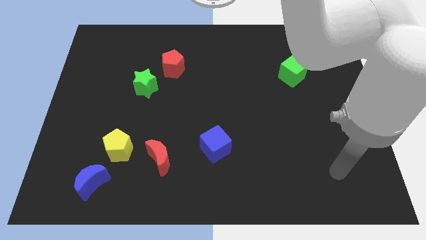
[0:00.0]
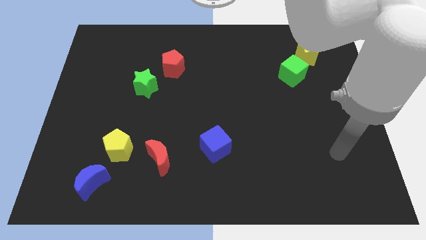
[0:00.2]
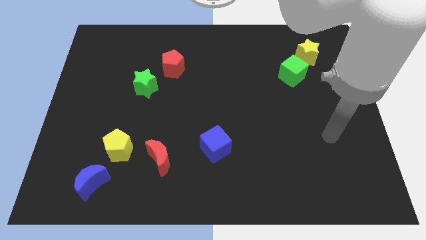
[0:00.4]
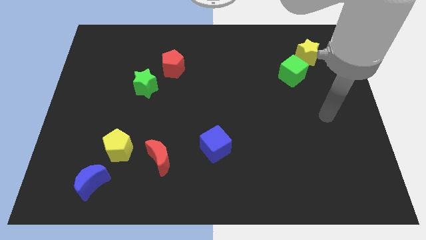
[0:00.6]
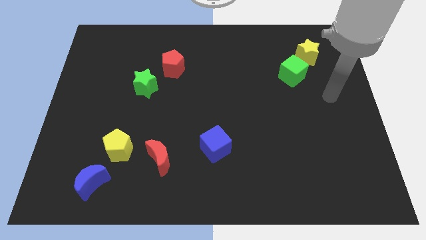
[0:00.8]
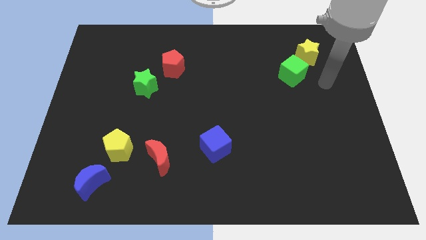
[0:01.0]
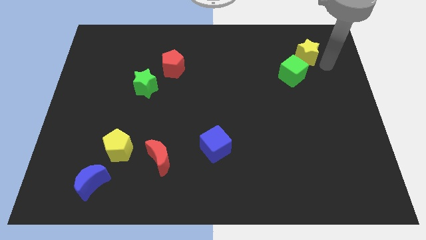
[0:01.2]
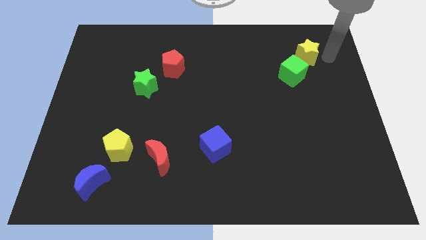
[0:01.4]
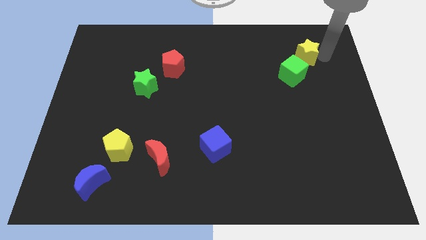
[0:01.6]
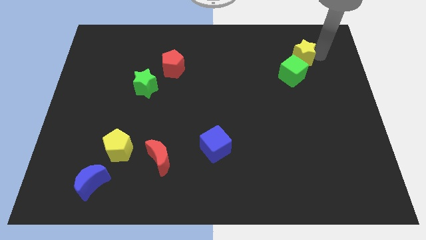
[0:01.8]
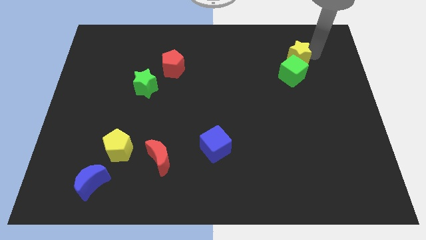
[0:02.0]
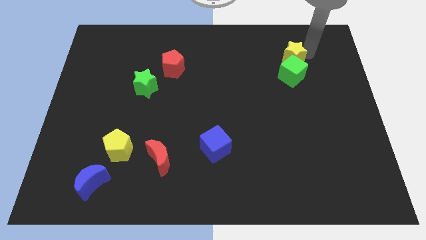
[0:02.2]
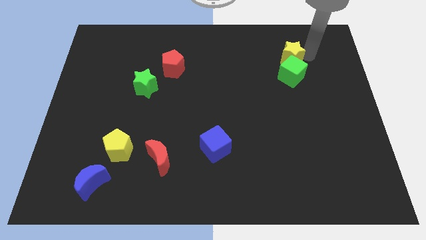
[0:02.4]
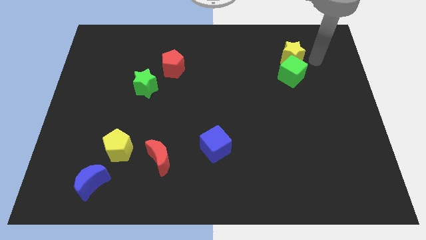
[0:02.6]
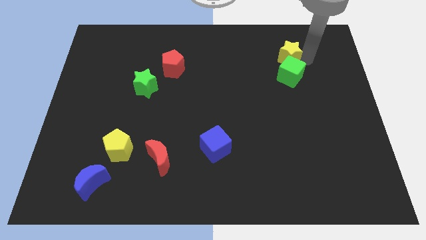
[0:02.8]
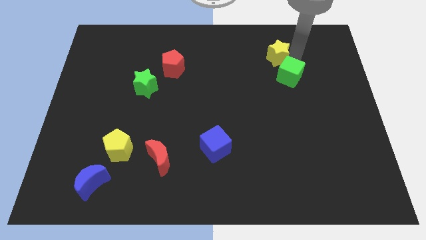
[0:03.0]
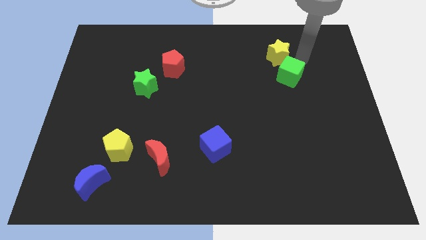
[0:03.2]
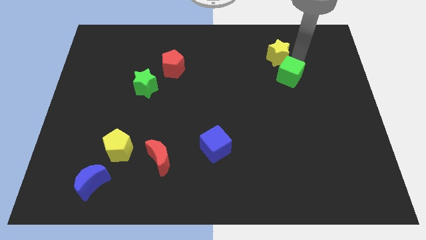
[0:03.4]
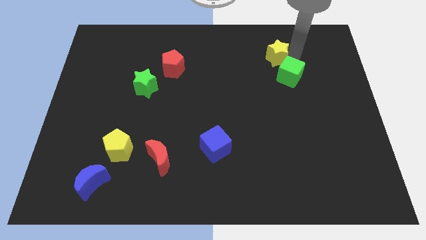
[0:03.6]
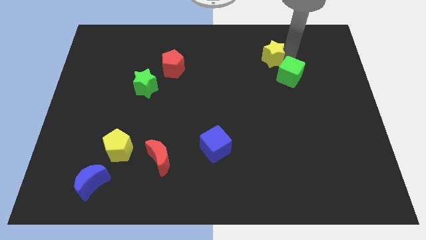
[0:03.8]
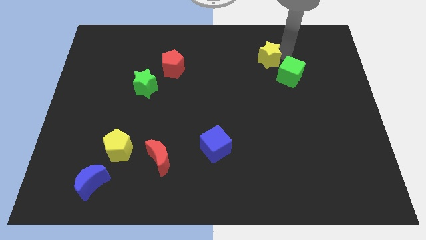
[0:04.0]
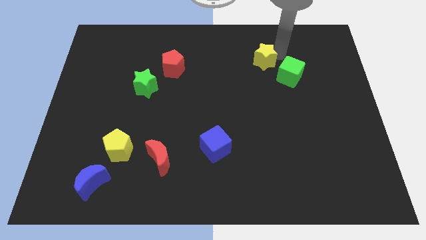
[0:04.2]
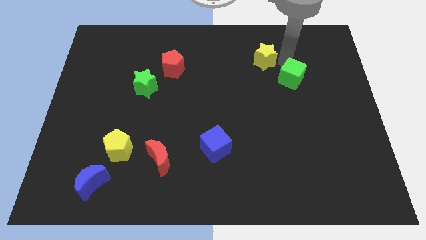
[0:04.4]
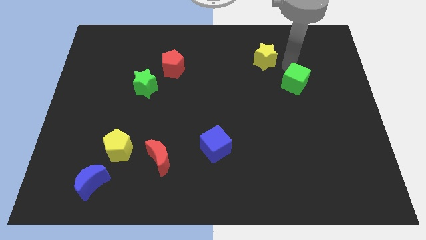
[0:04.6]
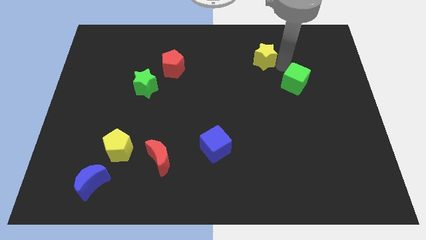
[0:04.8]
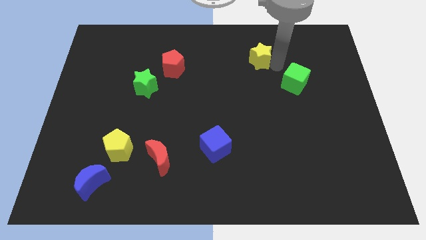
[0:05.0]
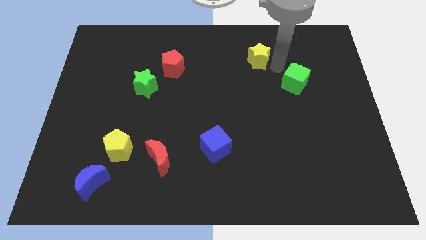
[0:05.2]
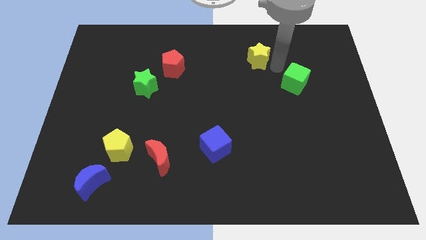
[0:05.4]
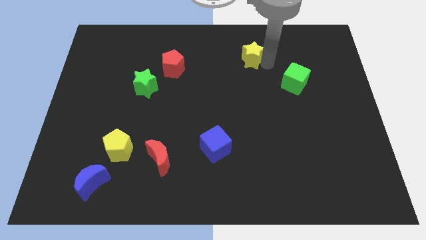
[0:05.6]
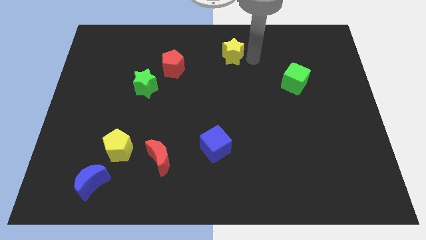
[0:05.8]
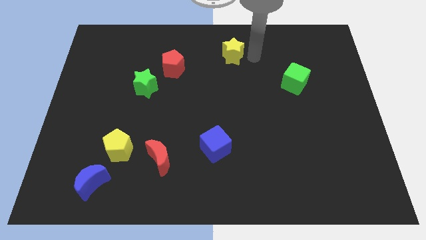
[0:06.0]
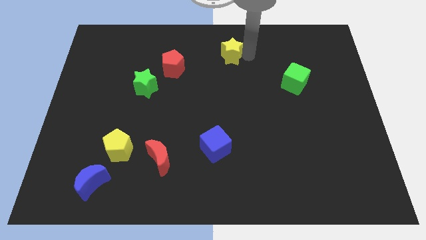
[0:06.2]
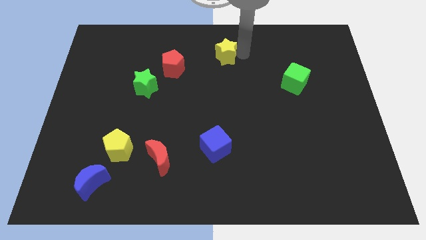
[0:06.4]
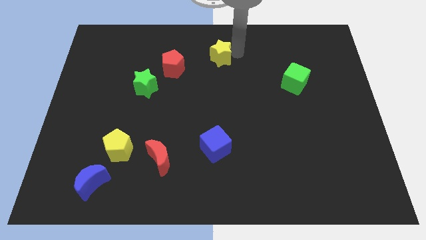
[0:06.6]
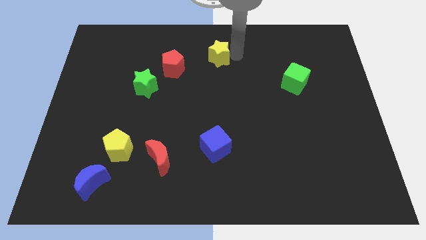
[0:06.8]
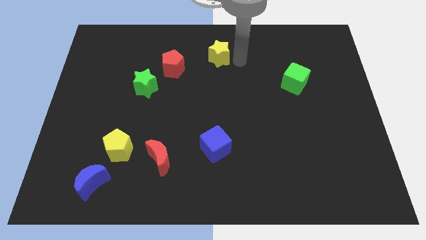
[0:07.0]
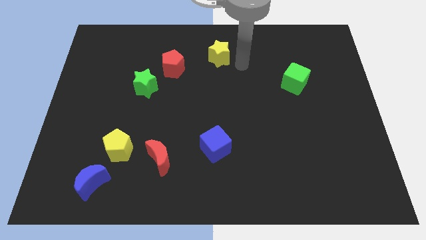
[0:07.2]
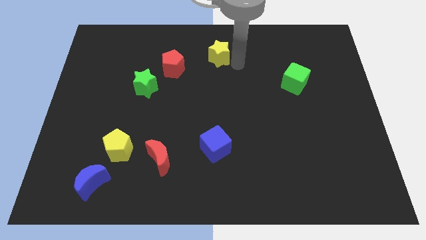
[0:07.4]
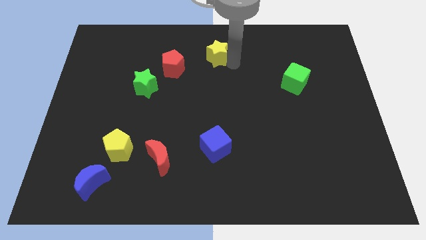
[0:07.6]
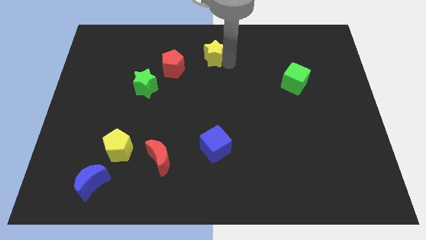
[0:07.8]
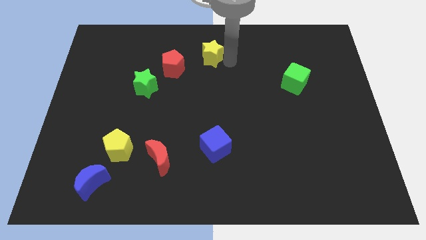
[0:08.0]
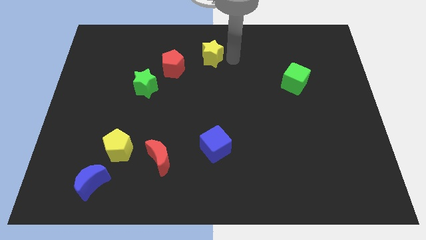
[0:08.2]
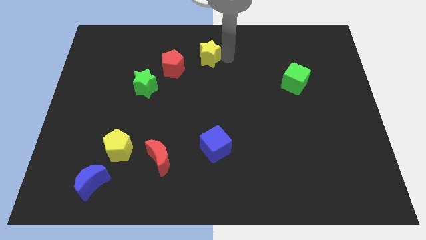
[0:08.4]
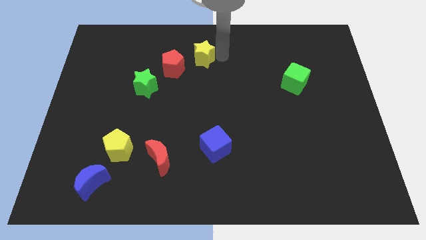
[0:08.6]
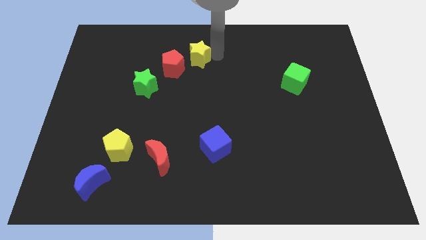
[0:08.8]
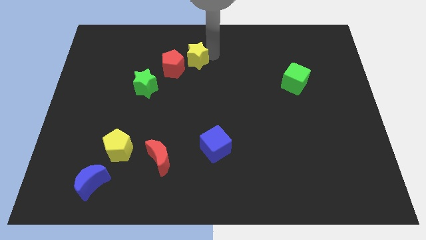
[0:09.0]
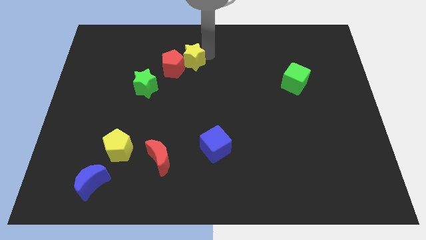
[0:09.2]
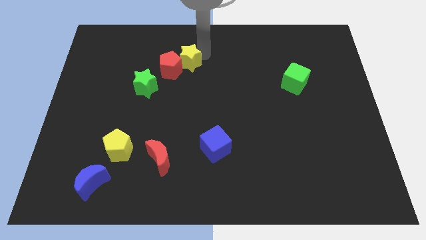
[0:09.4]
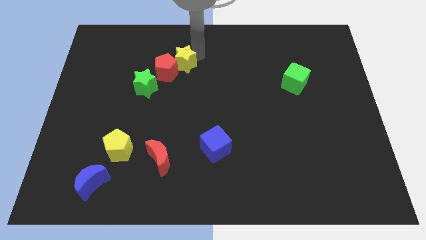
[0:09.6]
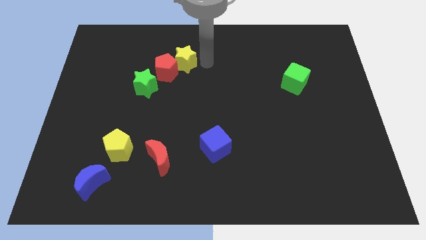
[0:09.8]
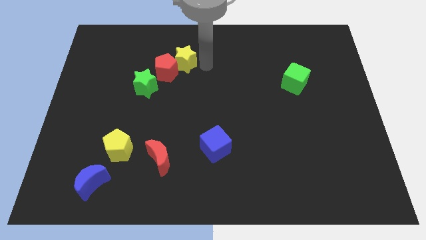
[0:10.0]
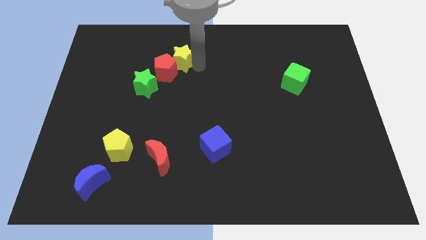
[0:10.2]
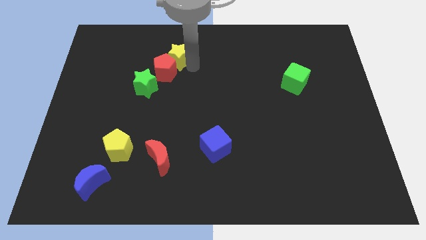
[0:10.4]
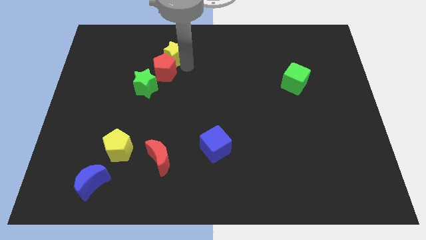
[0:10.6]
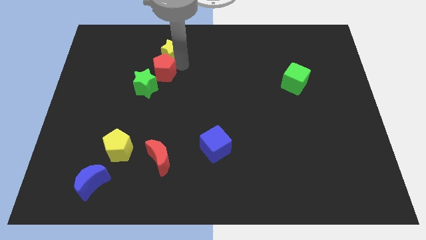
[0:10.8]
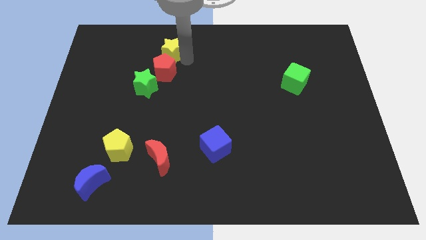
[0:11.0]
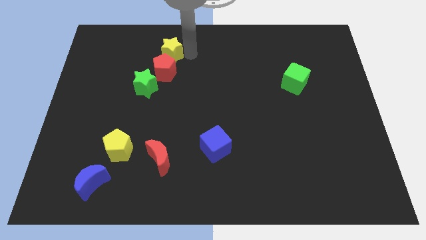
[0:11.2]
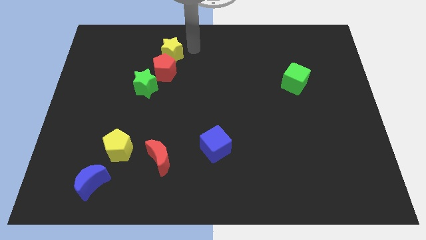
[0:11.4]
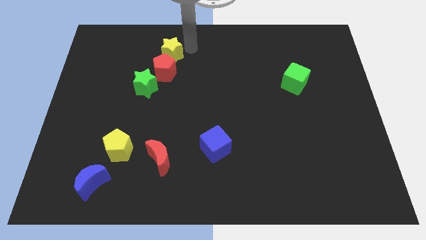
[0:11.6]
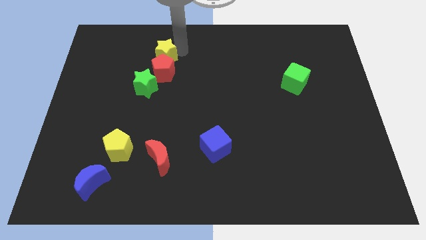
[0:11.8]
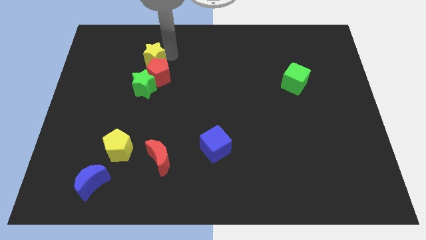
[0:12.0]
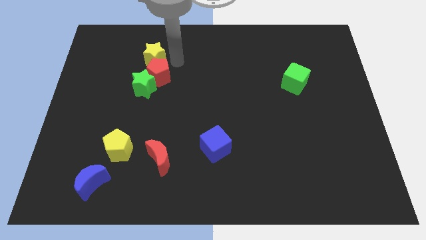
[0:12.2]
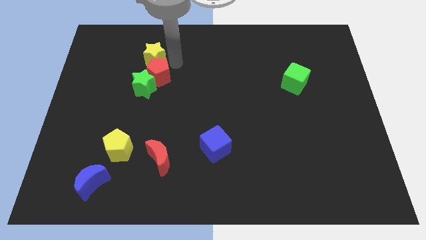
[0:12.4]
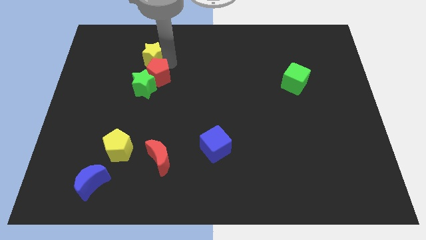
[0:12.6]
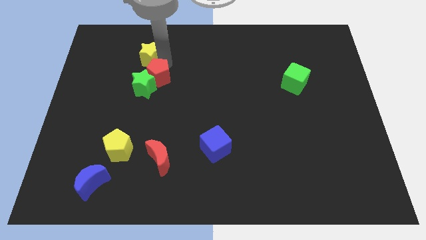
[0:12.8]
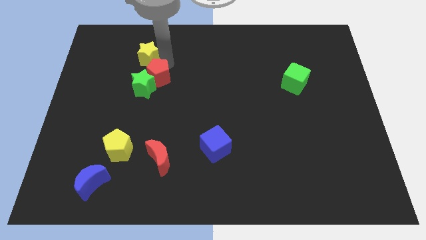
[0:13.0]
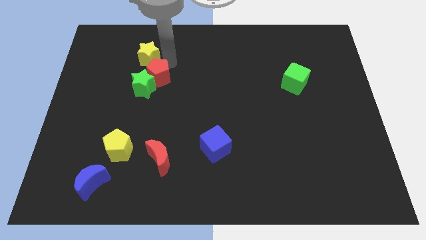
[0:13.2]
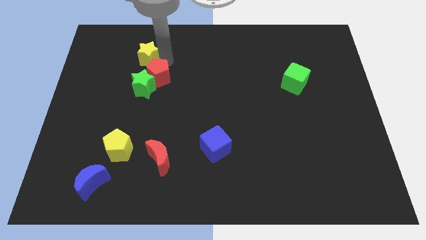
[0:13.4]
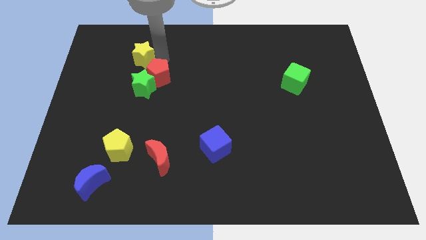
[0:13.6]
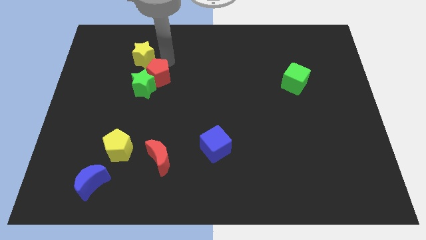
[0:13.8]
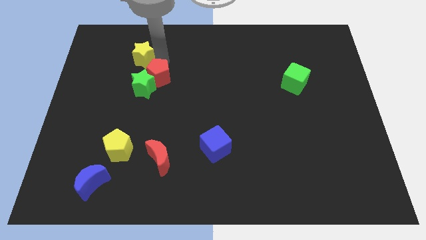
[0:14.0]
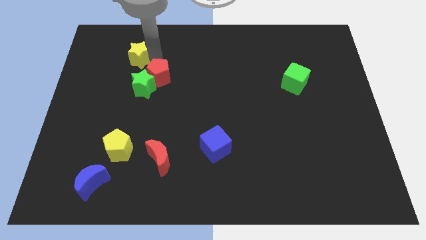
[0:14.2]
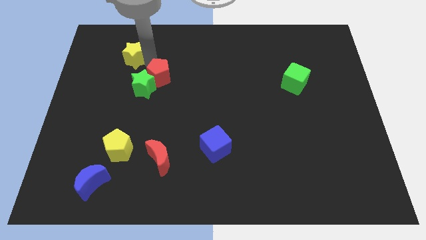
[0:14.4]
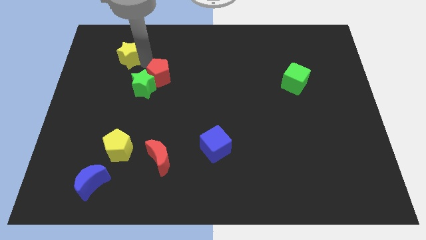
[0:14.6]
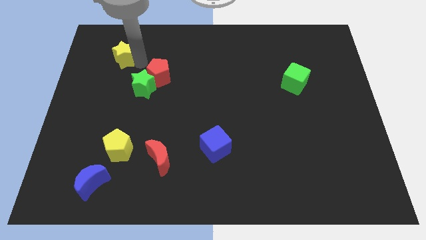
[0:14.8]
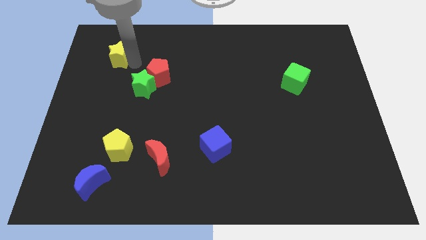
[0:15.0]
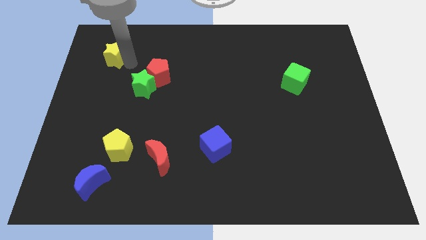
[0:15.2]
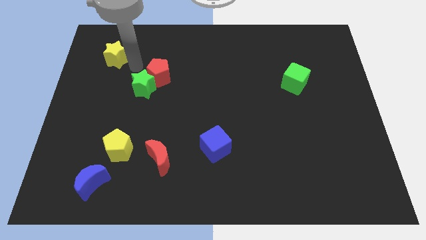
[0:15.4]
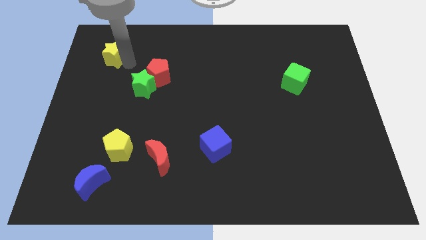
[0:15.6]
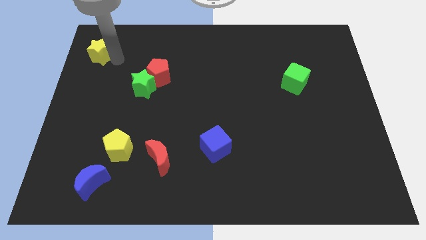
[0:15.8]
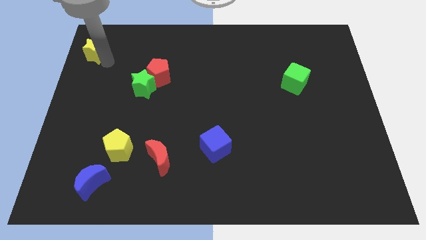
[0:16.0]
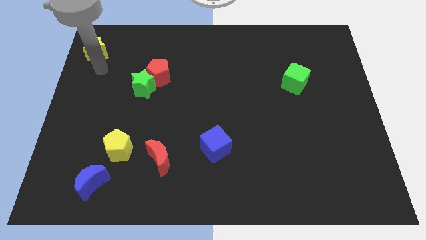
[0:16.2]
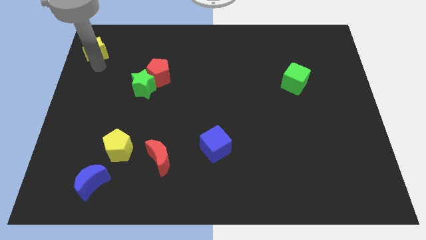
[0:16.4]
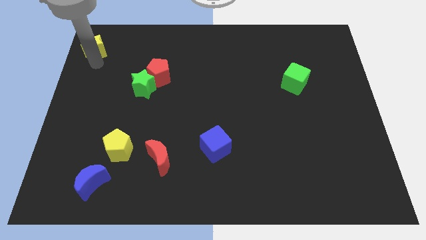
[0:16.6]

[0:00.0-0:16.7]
move the yellow star to the top left corner
